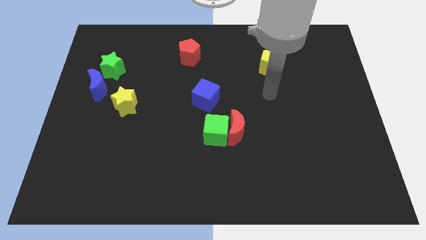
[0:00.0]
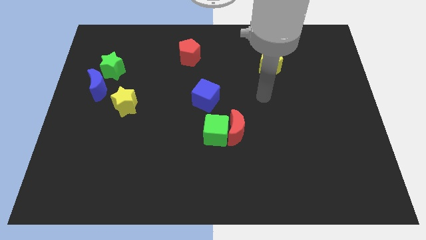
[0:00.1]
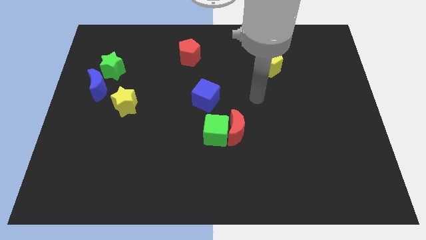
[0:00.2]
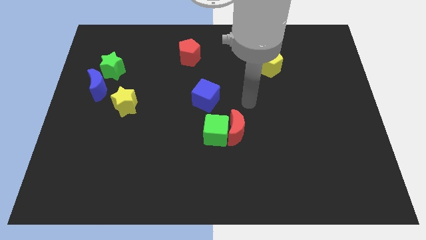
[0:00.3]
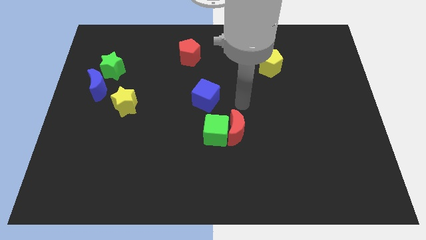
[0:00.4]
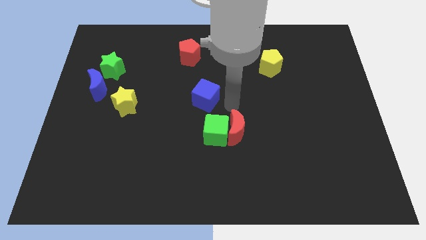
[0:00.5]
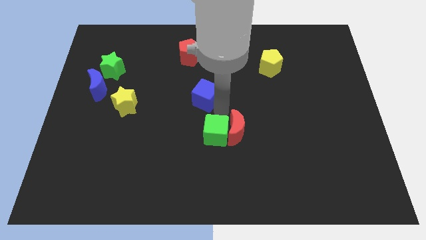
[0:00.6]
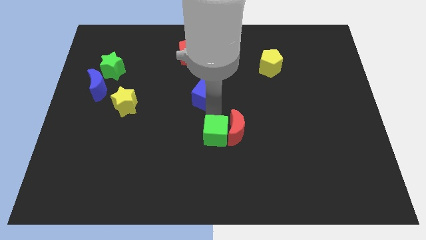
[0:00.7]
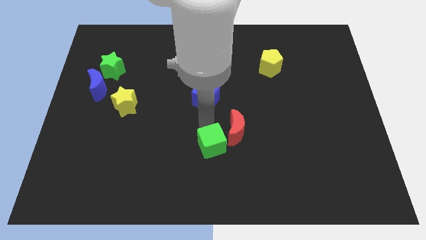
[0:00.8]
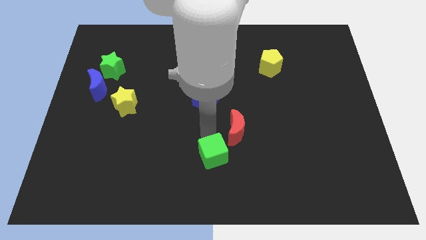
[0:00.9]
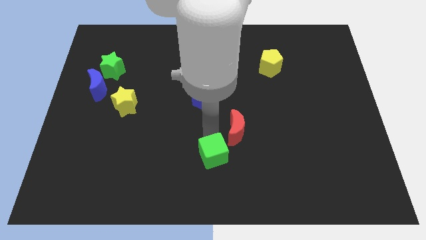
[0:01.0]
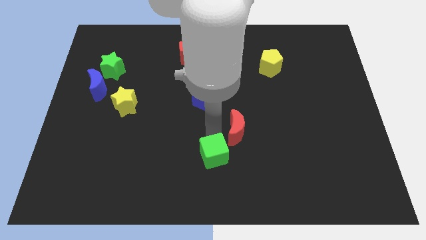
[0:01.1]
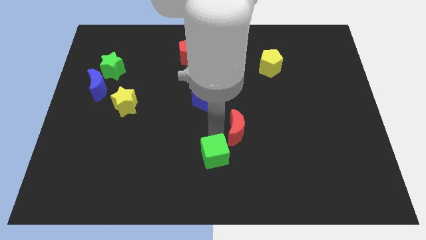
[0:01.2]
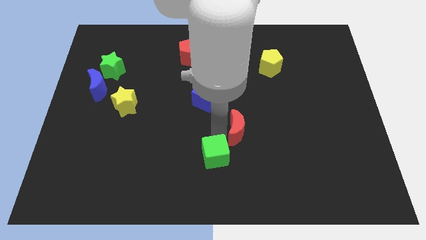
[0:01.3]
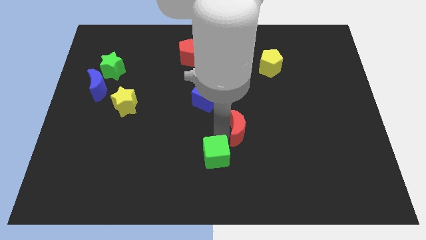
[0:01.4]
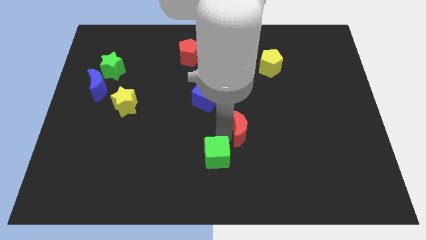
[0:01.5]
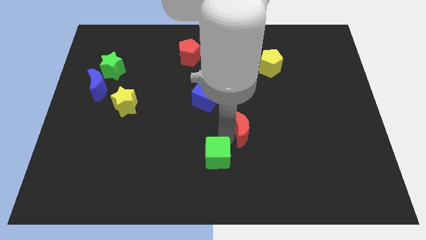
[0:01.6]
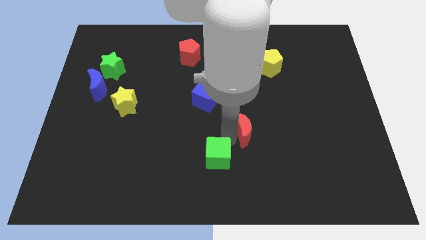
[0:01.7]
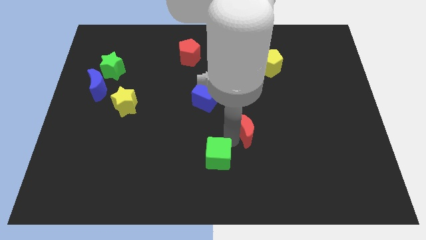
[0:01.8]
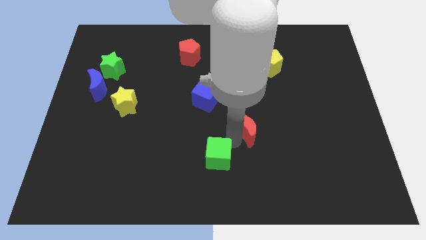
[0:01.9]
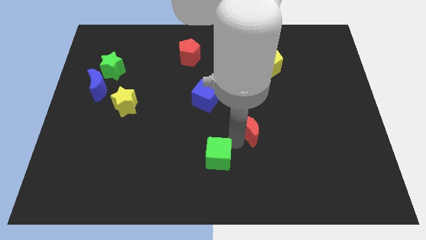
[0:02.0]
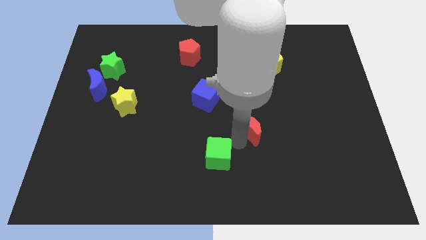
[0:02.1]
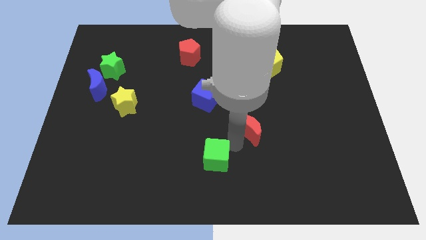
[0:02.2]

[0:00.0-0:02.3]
pull the red moon apart from the green cube

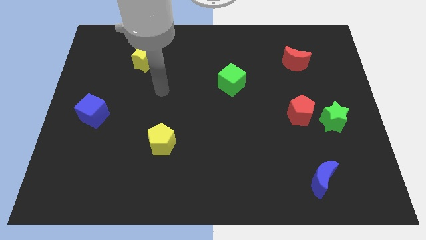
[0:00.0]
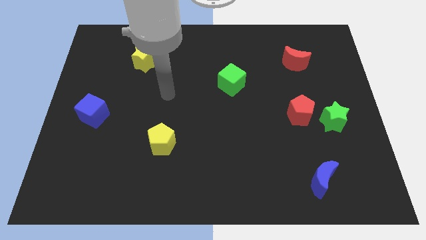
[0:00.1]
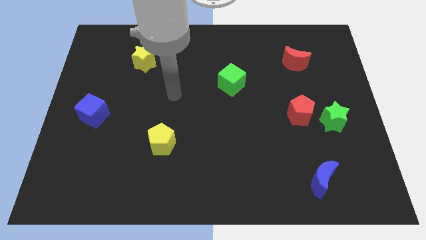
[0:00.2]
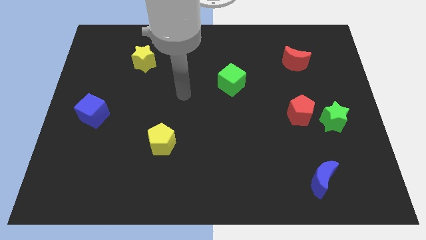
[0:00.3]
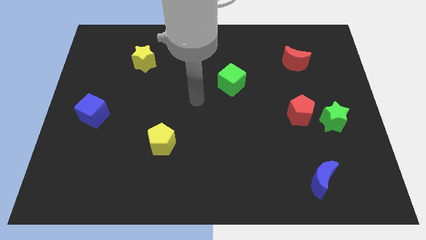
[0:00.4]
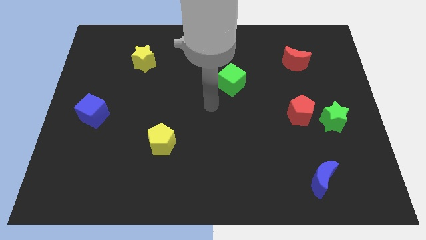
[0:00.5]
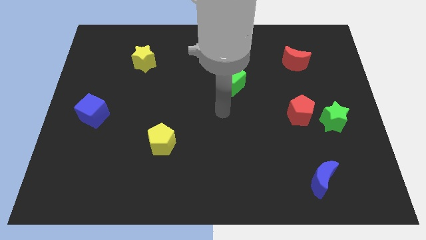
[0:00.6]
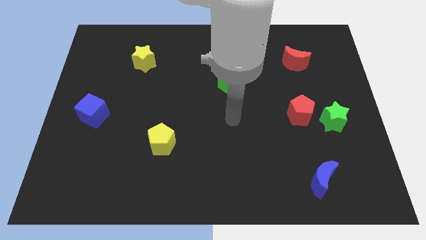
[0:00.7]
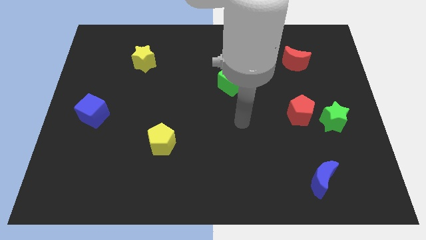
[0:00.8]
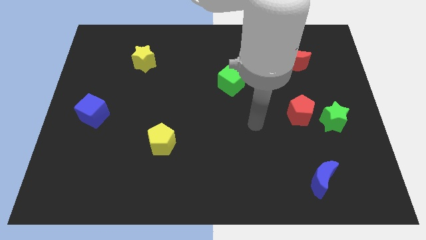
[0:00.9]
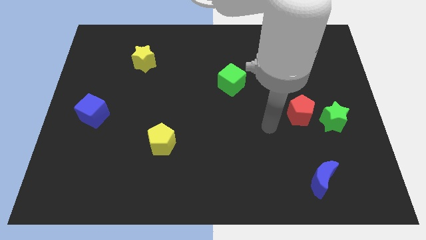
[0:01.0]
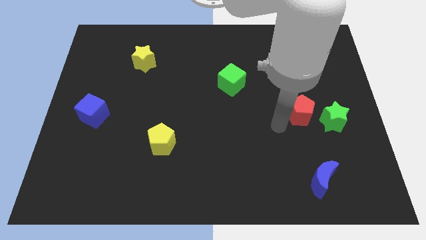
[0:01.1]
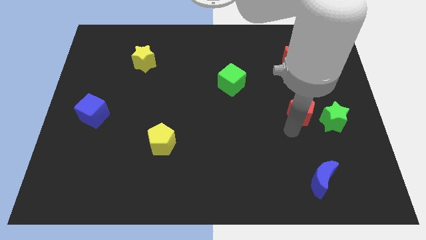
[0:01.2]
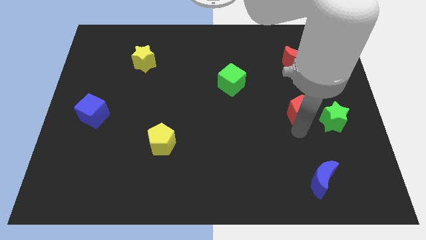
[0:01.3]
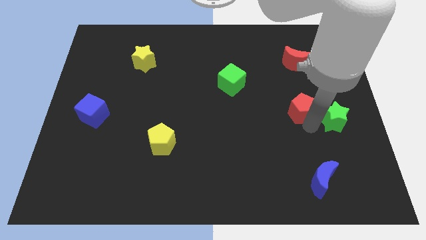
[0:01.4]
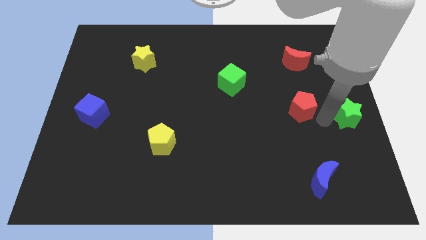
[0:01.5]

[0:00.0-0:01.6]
move the red pentagon away from the green star

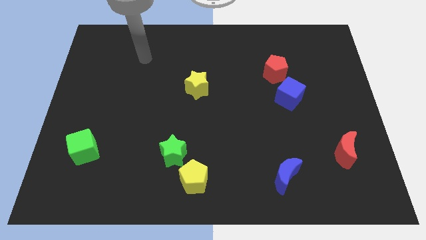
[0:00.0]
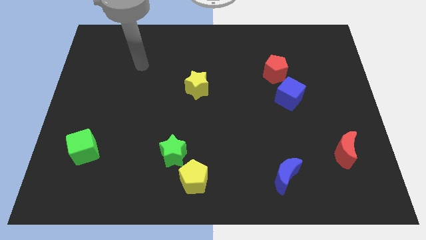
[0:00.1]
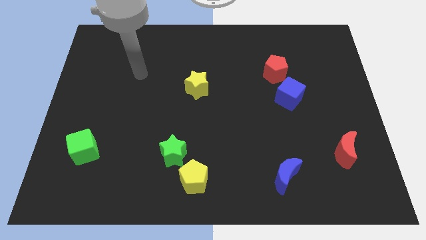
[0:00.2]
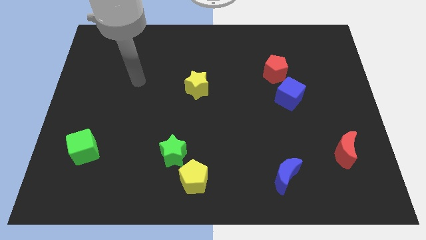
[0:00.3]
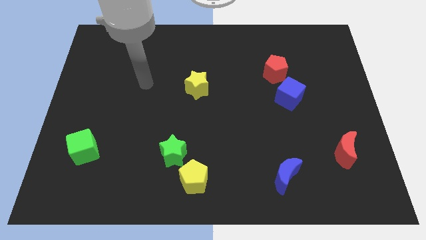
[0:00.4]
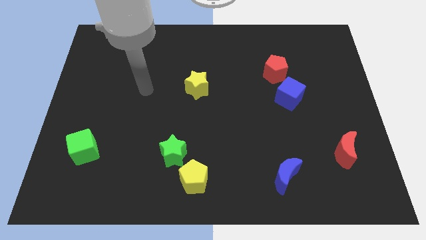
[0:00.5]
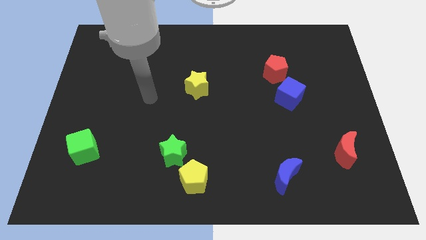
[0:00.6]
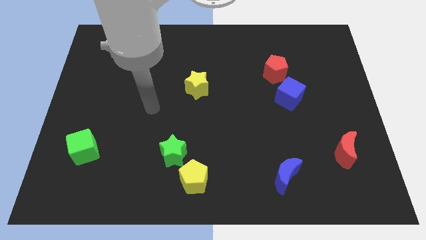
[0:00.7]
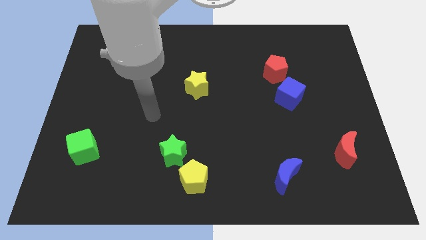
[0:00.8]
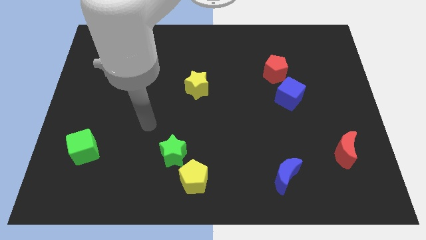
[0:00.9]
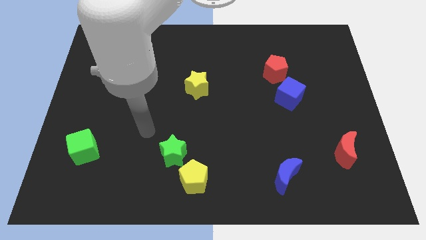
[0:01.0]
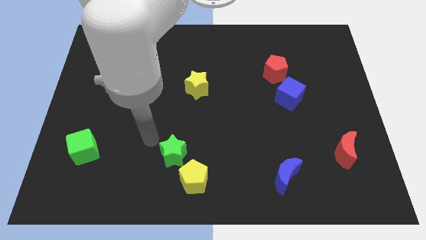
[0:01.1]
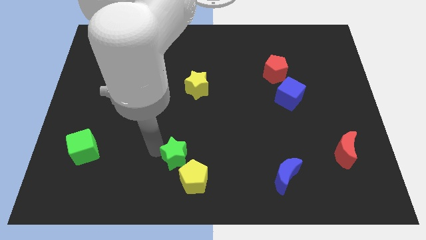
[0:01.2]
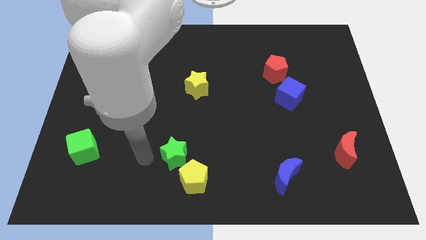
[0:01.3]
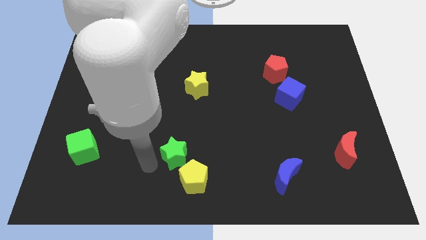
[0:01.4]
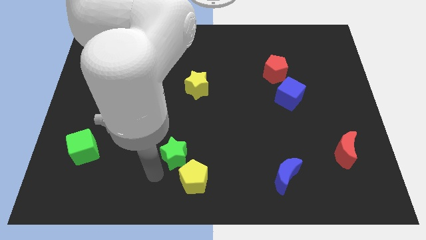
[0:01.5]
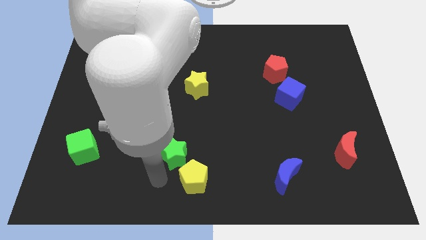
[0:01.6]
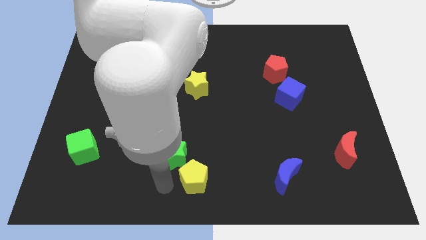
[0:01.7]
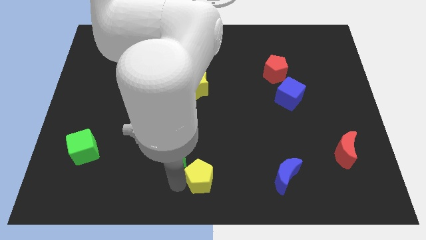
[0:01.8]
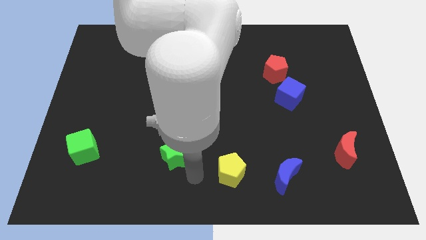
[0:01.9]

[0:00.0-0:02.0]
move the green star away from the yellow pentagon

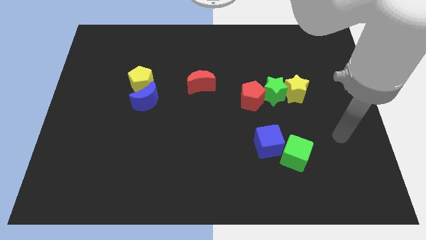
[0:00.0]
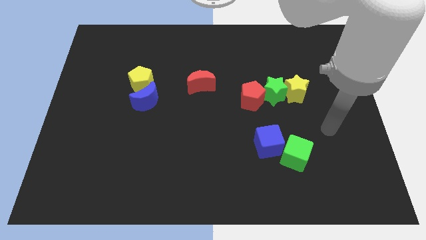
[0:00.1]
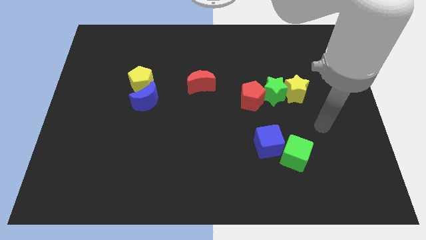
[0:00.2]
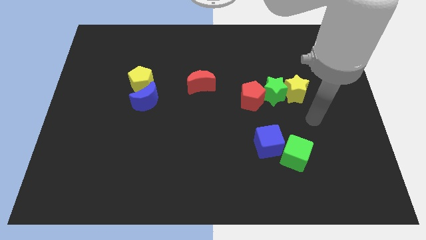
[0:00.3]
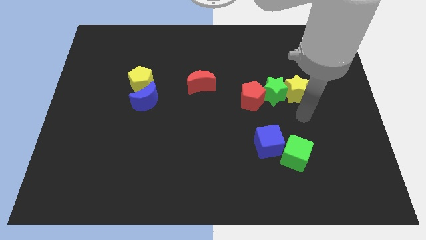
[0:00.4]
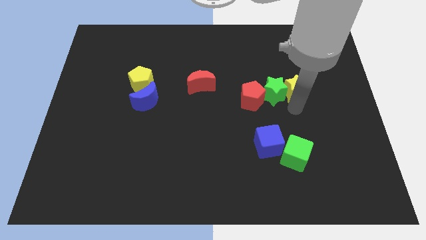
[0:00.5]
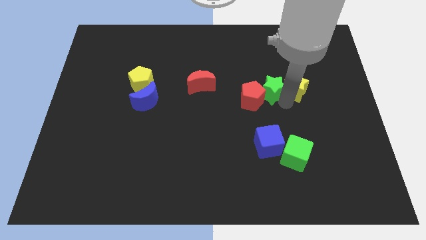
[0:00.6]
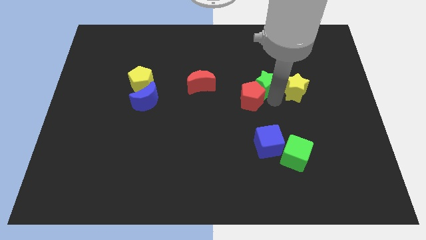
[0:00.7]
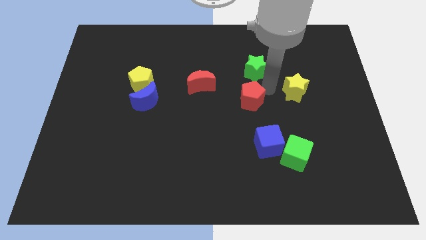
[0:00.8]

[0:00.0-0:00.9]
pull the yellow star apart from the green star

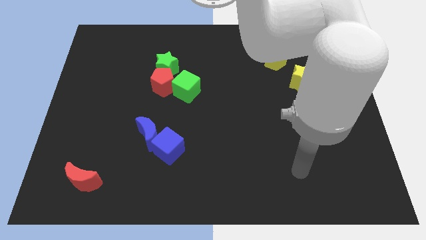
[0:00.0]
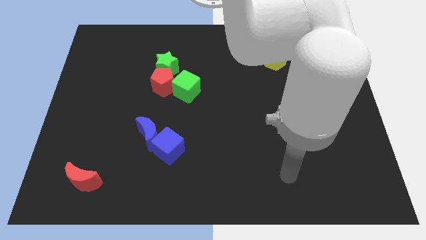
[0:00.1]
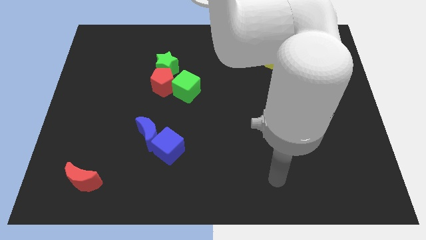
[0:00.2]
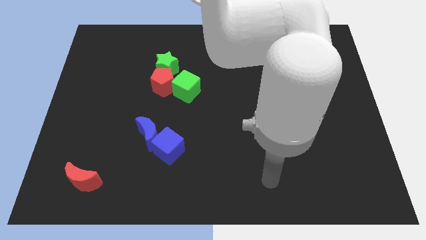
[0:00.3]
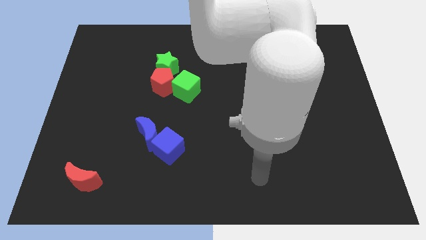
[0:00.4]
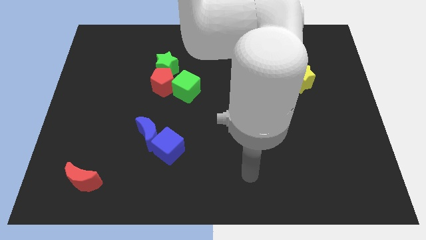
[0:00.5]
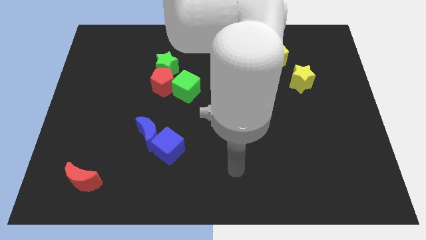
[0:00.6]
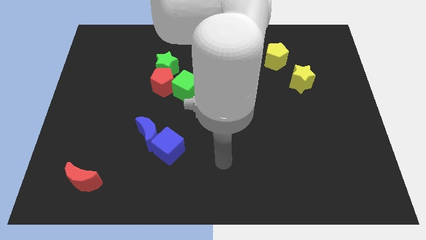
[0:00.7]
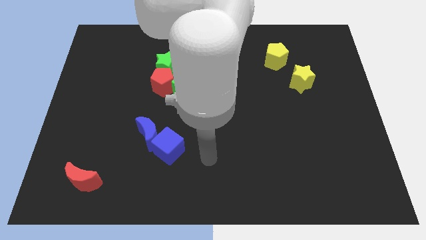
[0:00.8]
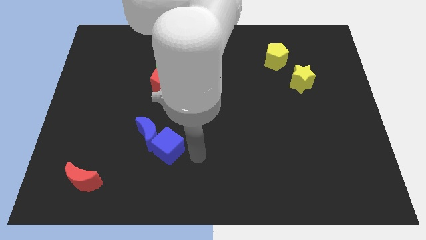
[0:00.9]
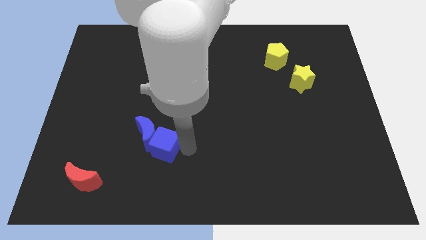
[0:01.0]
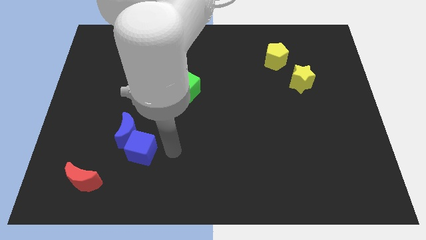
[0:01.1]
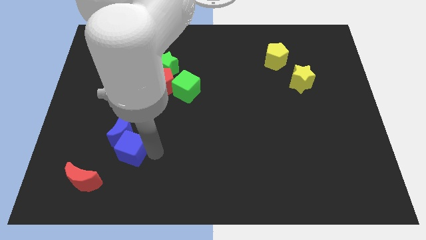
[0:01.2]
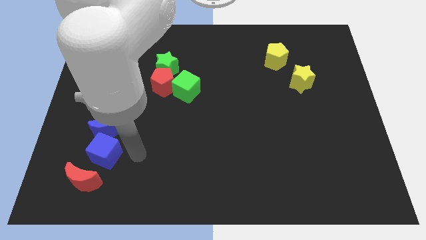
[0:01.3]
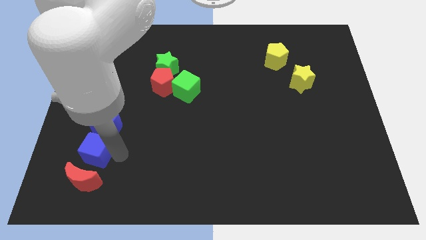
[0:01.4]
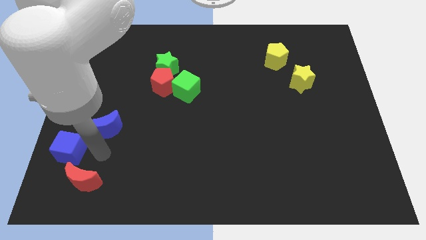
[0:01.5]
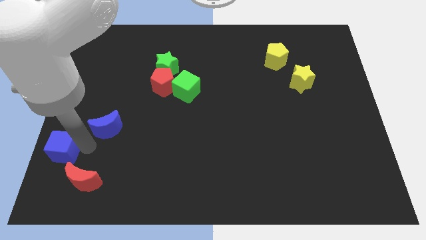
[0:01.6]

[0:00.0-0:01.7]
pull the blue moon apart from the blue cube

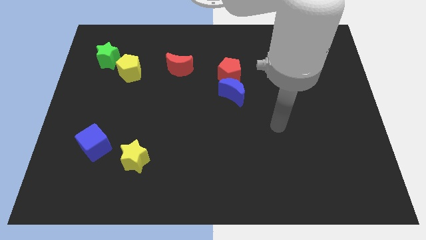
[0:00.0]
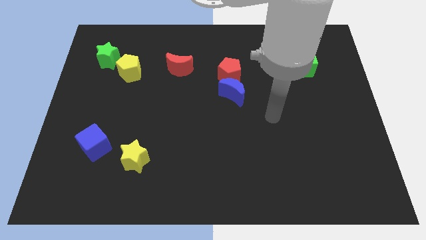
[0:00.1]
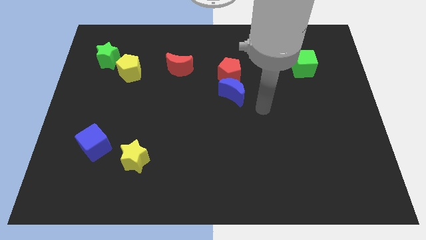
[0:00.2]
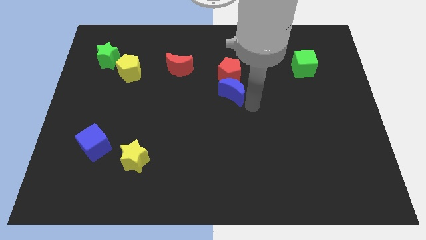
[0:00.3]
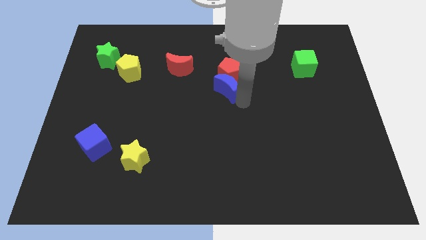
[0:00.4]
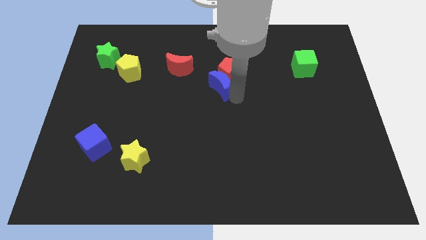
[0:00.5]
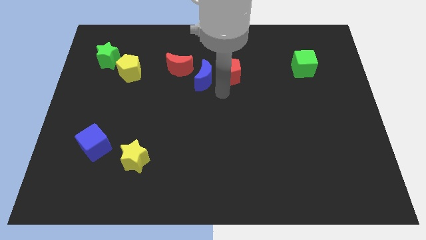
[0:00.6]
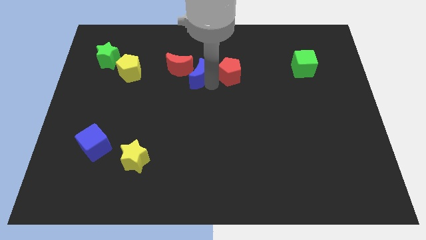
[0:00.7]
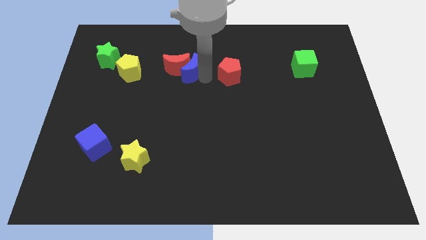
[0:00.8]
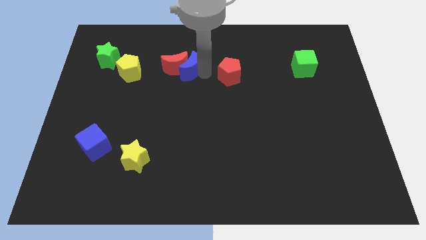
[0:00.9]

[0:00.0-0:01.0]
move the red pentagon away from the blue moon
